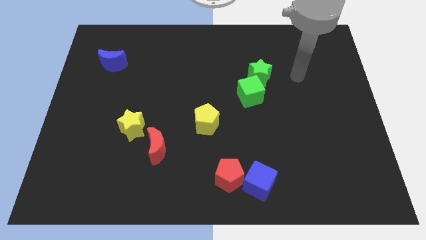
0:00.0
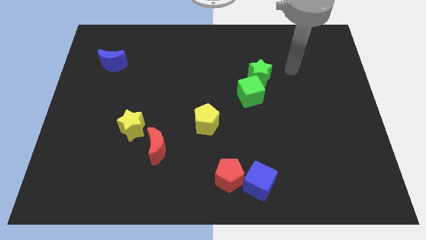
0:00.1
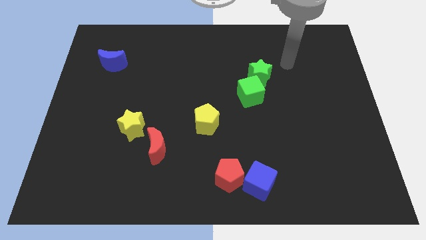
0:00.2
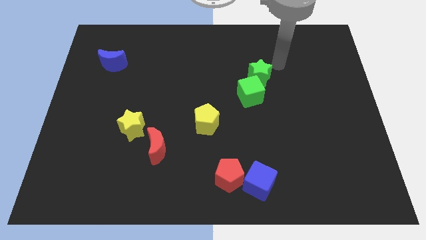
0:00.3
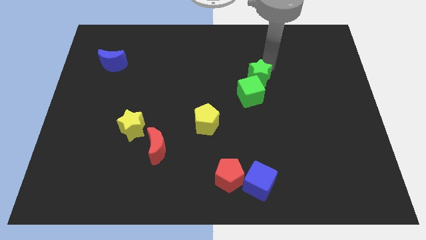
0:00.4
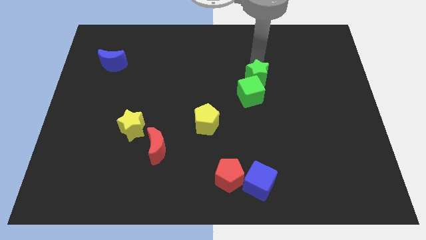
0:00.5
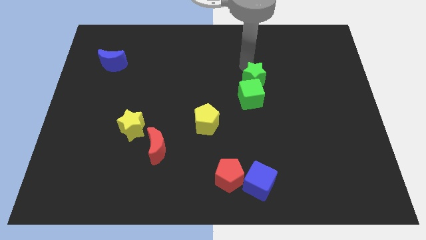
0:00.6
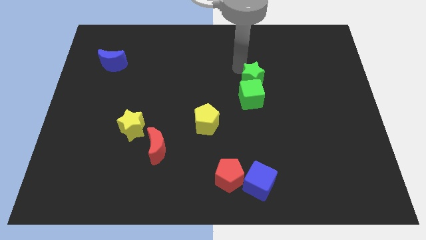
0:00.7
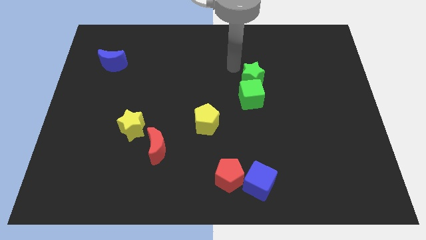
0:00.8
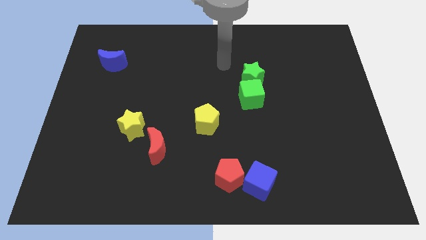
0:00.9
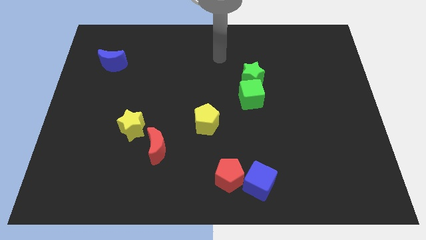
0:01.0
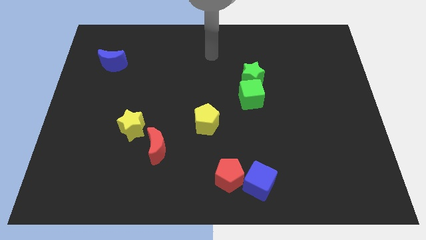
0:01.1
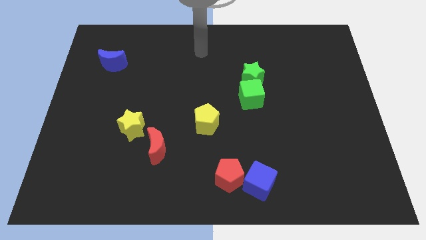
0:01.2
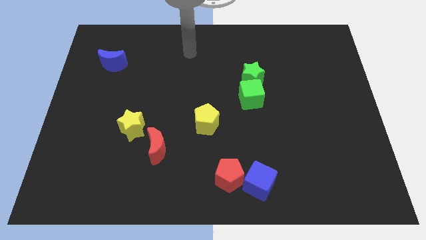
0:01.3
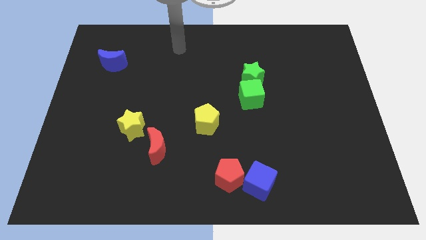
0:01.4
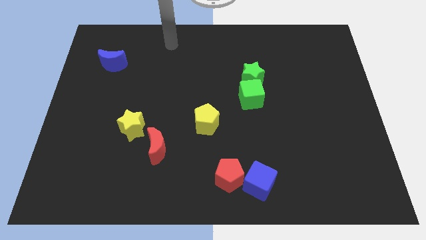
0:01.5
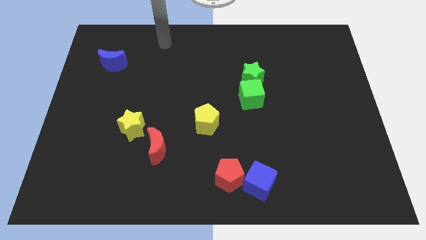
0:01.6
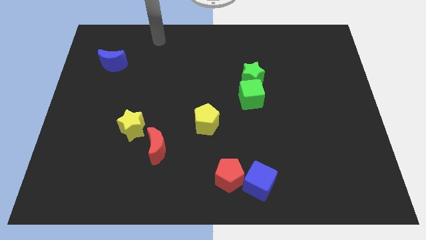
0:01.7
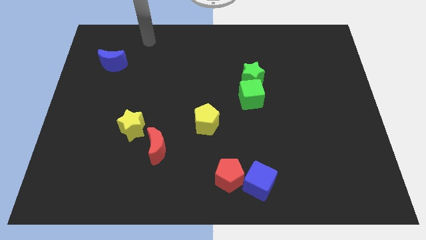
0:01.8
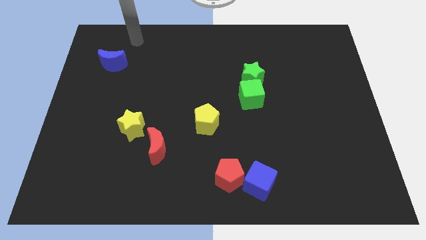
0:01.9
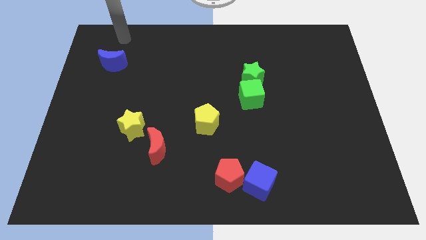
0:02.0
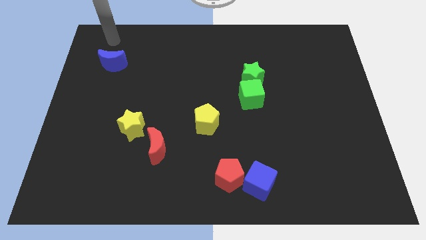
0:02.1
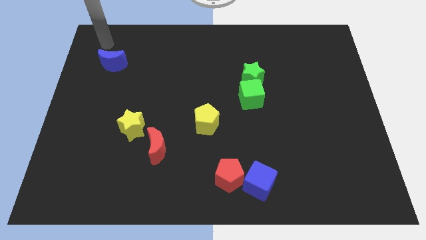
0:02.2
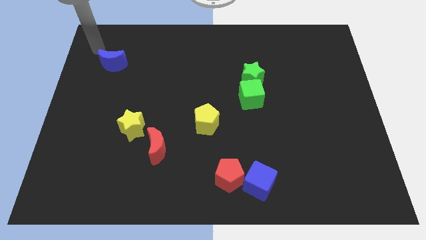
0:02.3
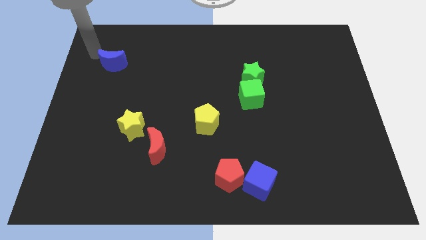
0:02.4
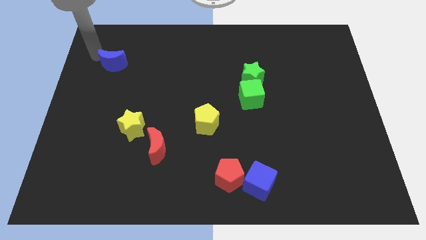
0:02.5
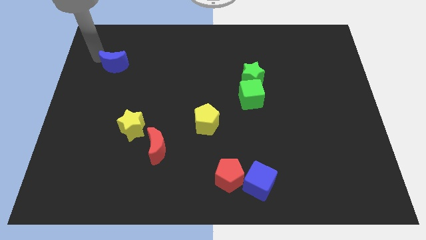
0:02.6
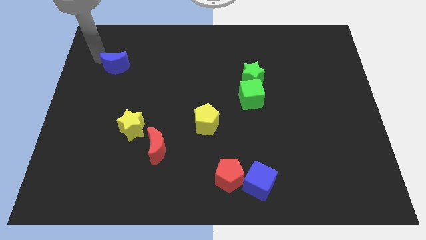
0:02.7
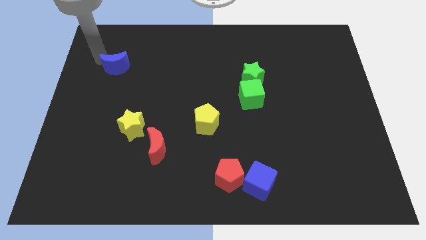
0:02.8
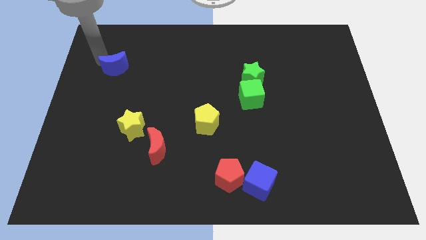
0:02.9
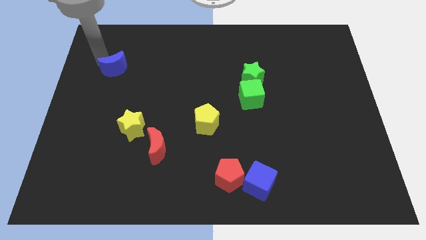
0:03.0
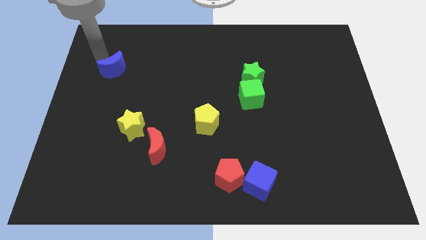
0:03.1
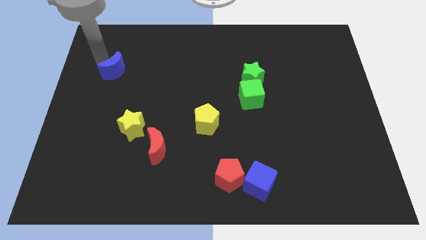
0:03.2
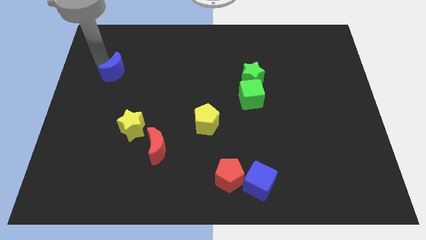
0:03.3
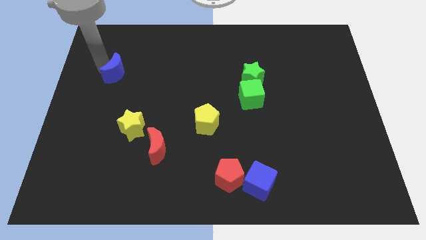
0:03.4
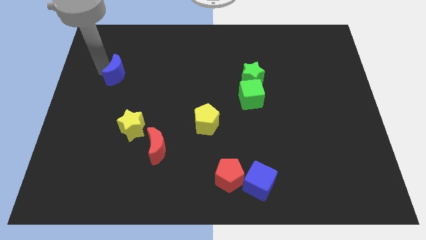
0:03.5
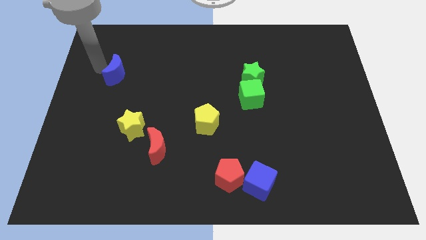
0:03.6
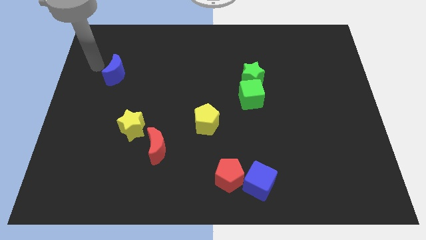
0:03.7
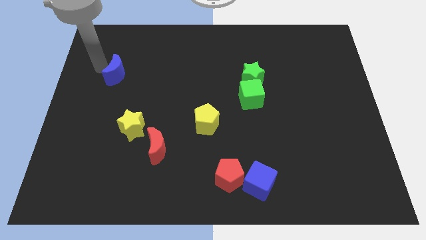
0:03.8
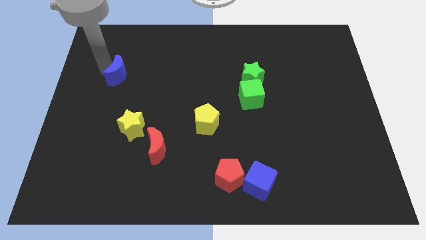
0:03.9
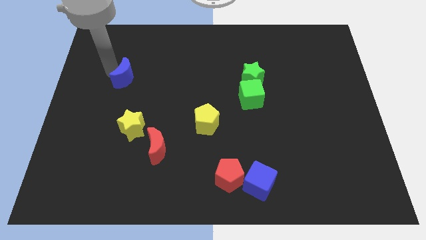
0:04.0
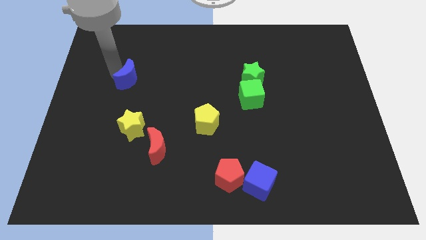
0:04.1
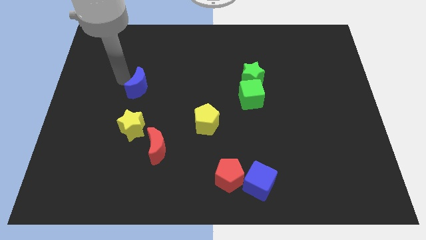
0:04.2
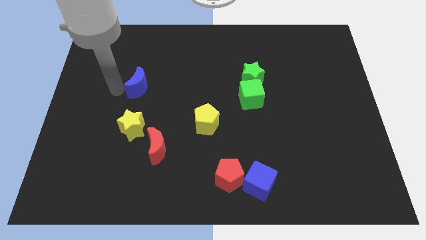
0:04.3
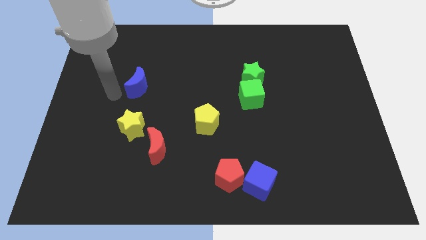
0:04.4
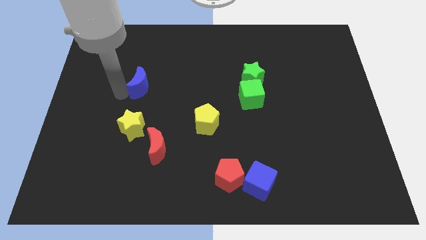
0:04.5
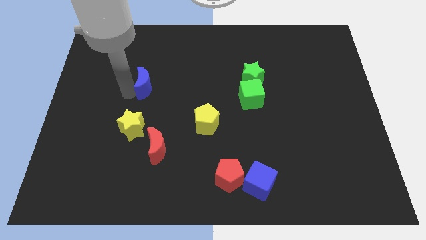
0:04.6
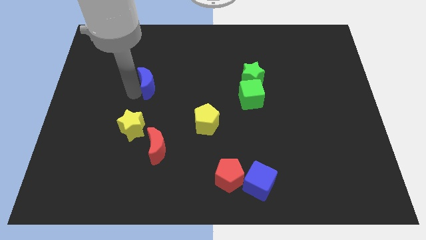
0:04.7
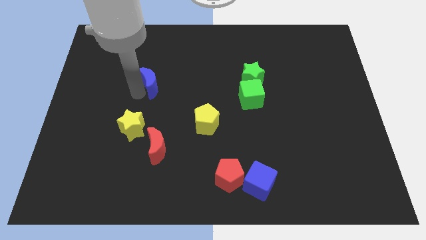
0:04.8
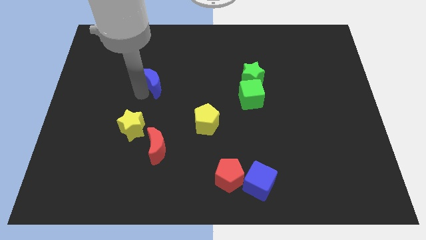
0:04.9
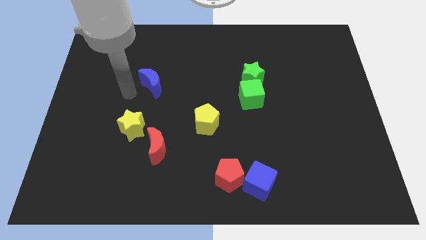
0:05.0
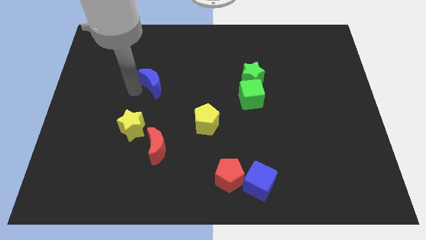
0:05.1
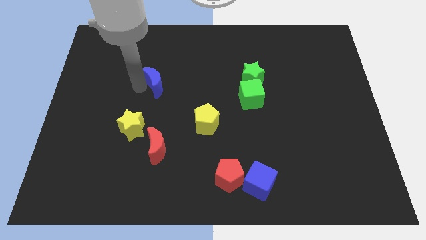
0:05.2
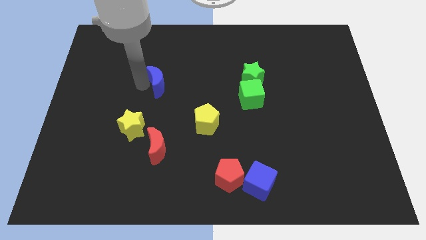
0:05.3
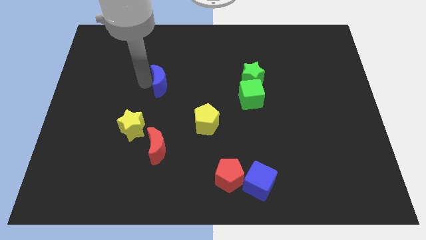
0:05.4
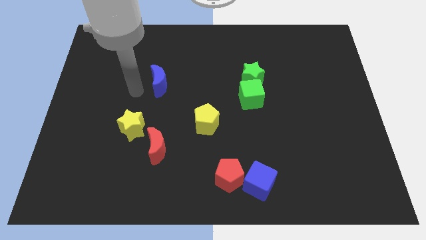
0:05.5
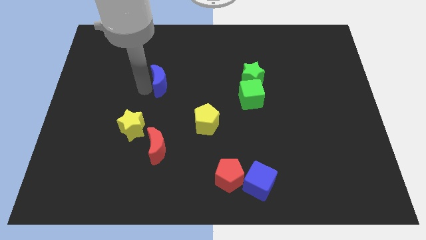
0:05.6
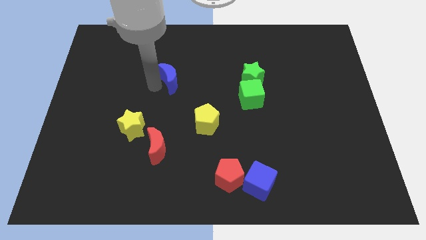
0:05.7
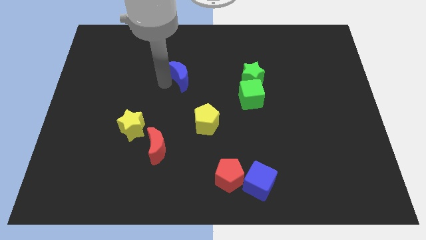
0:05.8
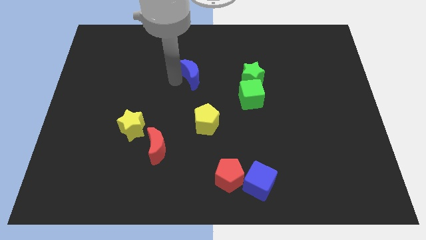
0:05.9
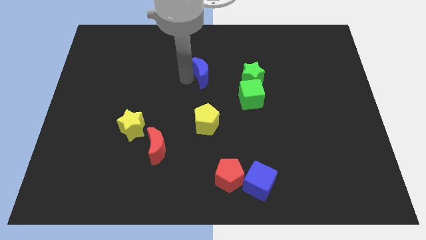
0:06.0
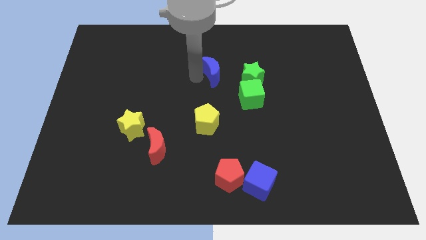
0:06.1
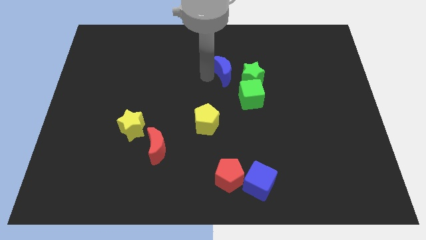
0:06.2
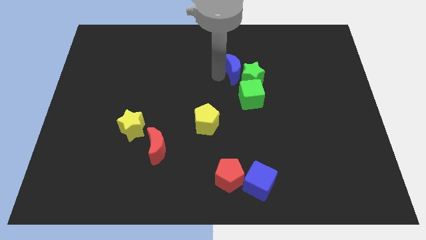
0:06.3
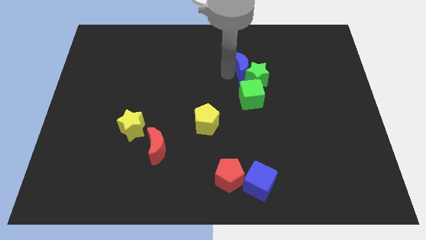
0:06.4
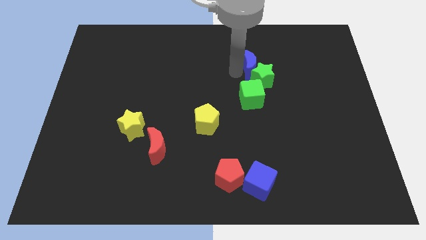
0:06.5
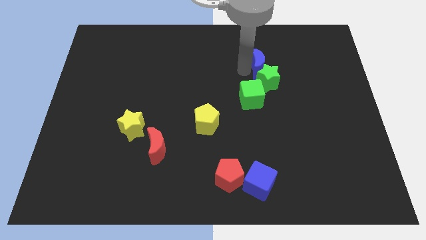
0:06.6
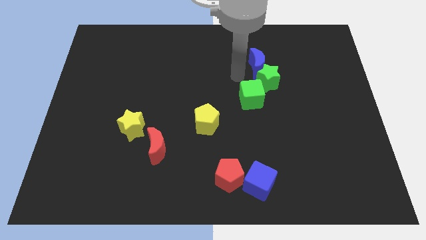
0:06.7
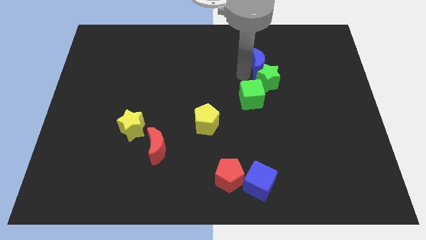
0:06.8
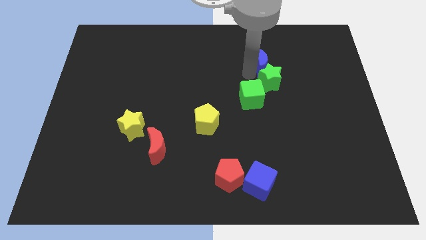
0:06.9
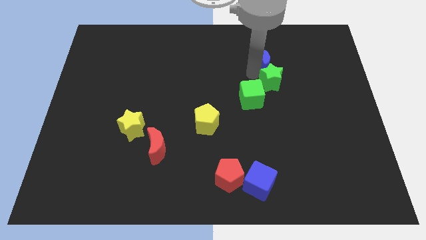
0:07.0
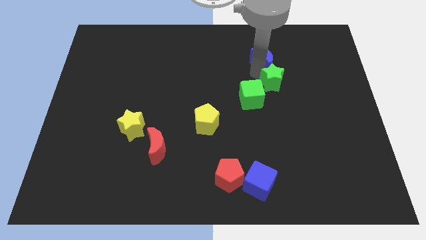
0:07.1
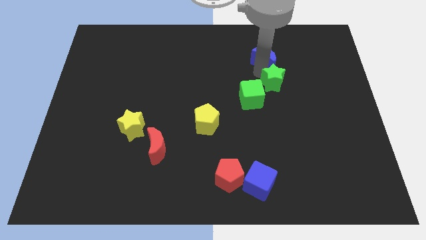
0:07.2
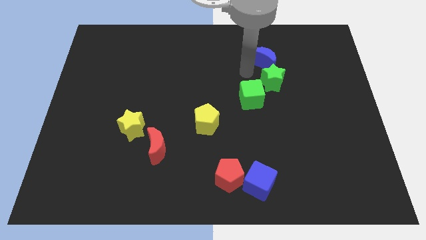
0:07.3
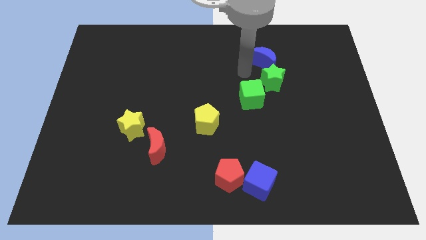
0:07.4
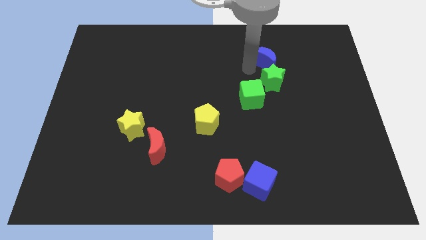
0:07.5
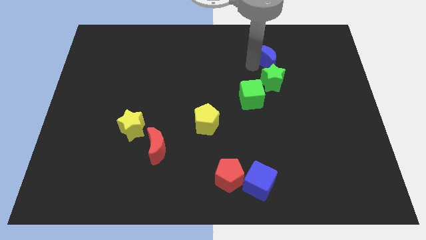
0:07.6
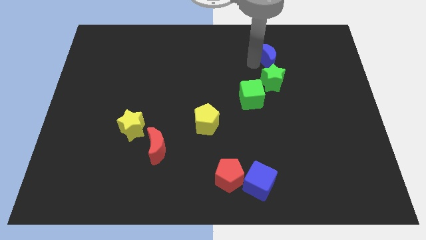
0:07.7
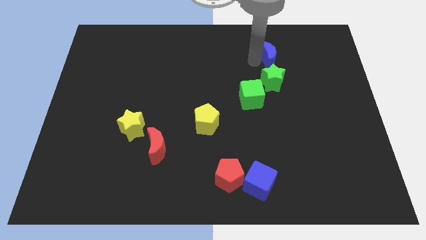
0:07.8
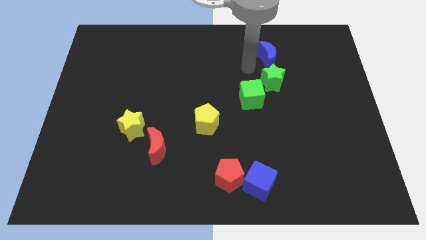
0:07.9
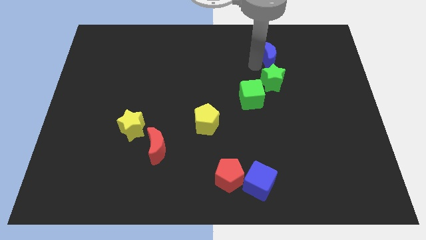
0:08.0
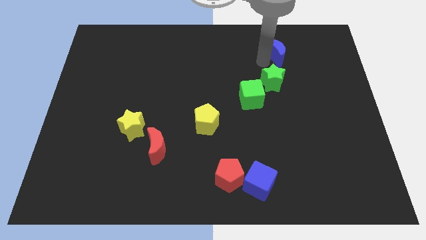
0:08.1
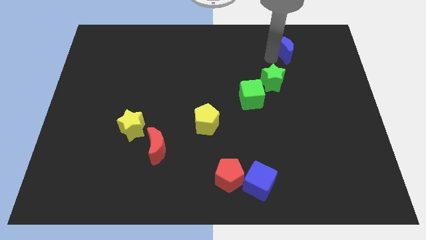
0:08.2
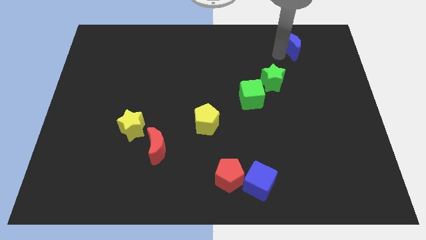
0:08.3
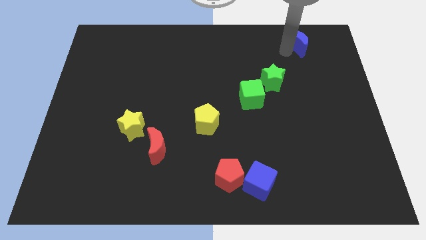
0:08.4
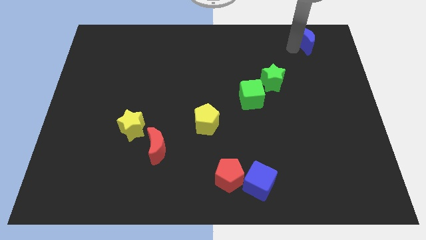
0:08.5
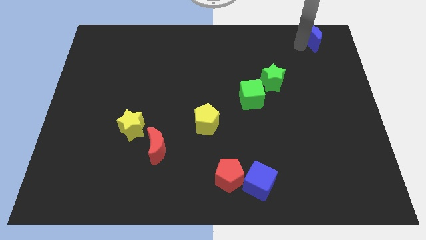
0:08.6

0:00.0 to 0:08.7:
slide the blue moon to the upper right corner
